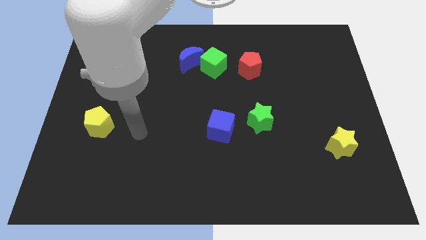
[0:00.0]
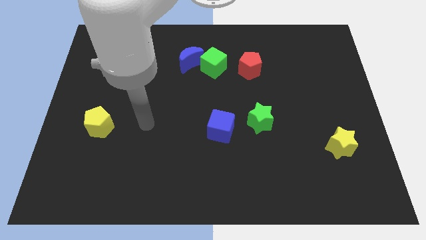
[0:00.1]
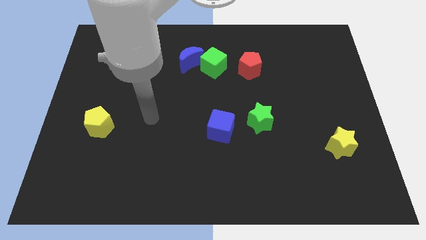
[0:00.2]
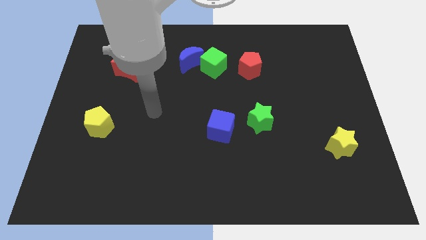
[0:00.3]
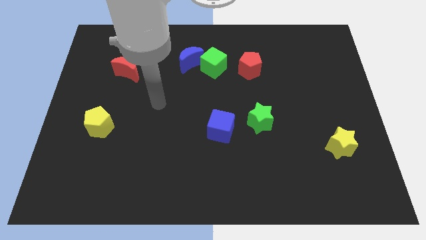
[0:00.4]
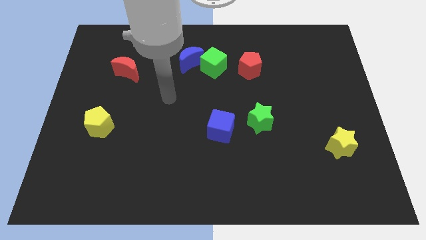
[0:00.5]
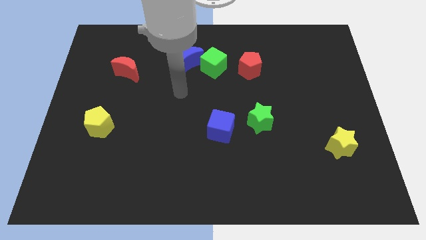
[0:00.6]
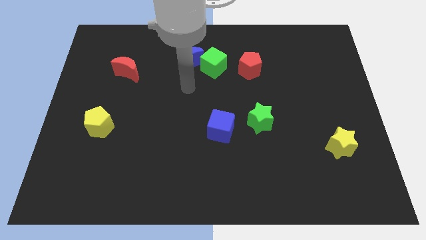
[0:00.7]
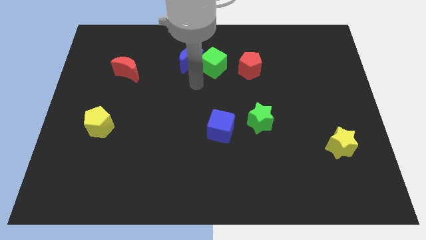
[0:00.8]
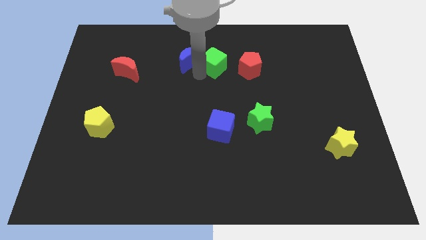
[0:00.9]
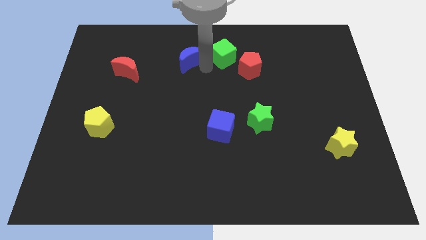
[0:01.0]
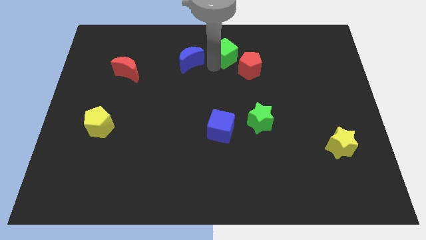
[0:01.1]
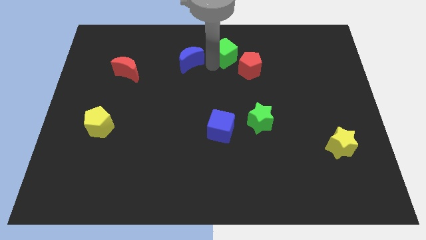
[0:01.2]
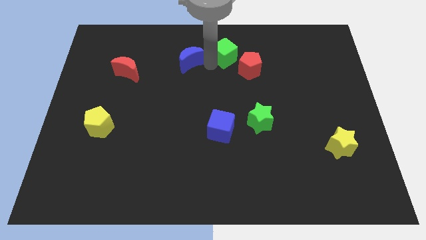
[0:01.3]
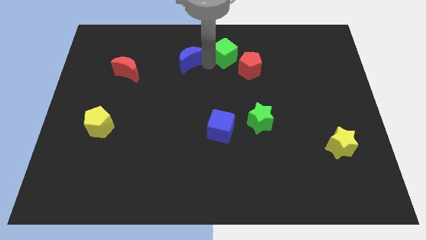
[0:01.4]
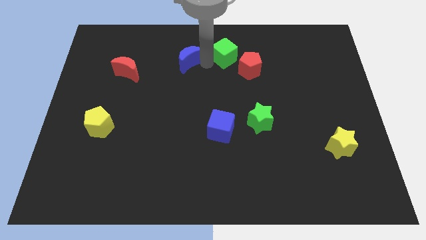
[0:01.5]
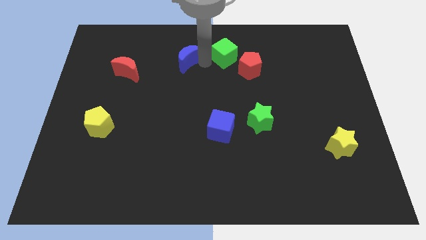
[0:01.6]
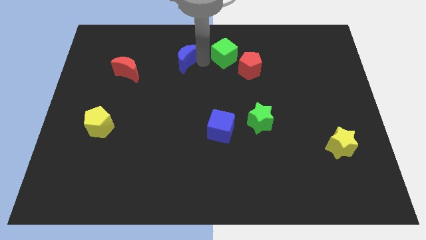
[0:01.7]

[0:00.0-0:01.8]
separate the blue moon from the green cube

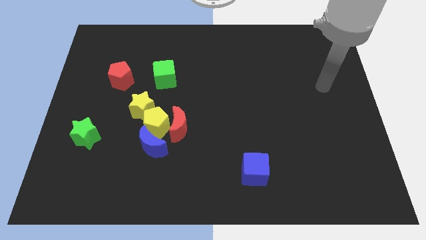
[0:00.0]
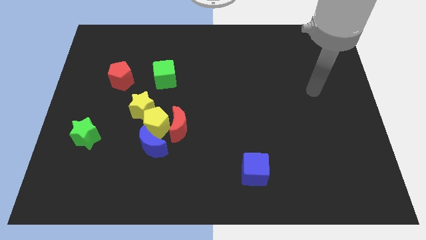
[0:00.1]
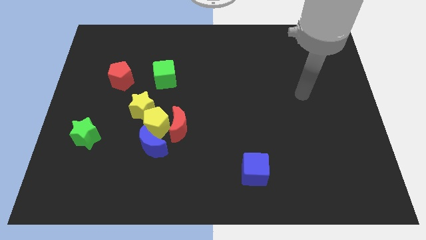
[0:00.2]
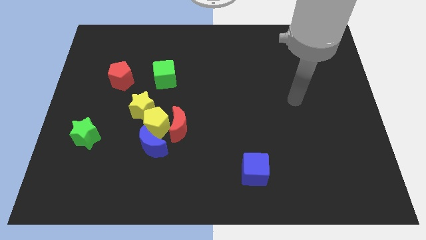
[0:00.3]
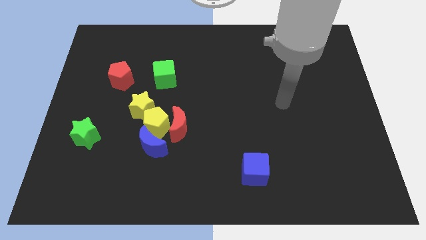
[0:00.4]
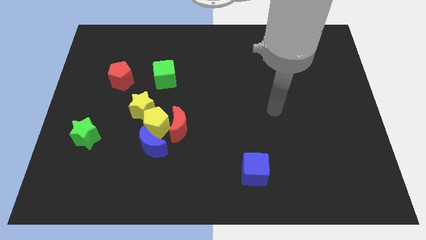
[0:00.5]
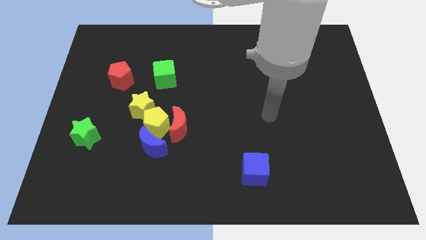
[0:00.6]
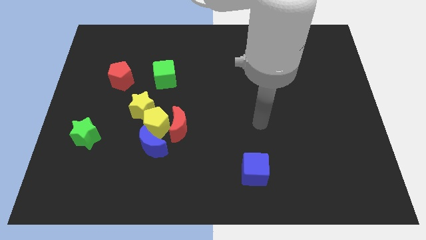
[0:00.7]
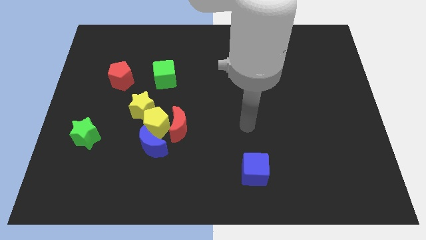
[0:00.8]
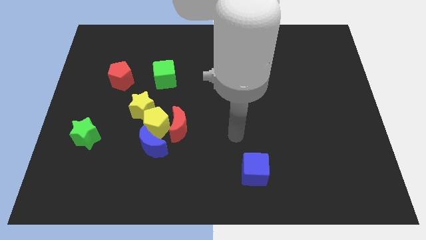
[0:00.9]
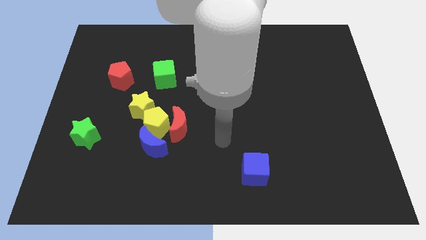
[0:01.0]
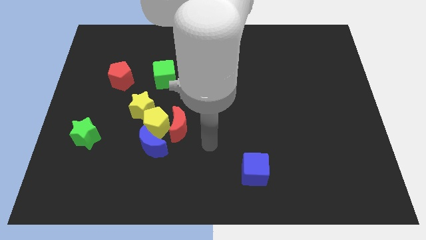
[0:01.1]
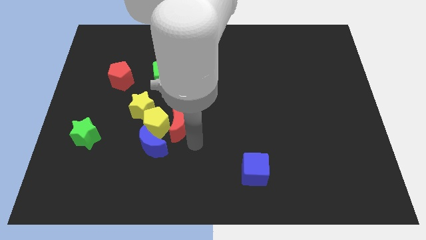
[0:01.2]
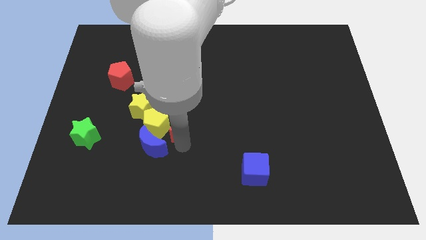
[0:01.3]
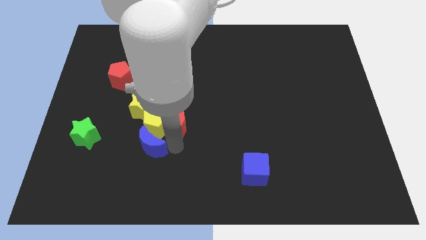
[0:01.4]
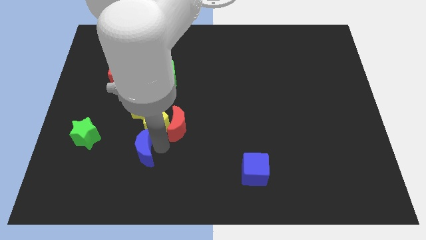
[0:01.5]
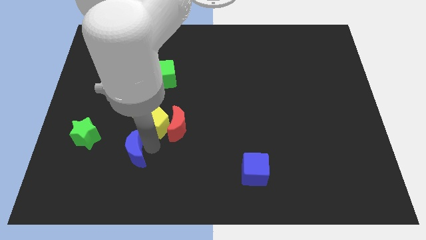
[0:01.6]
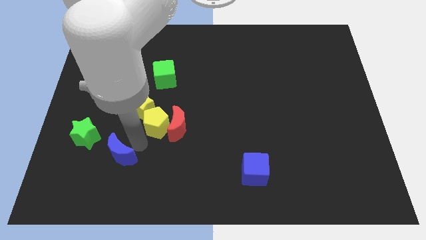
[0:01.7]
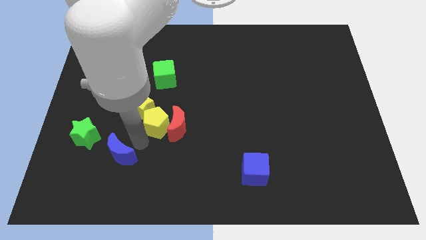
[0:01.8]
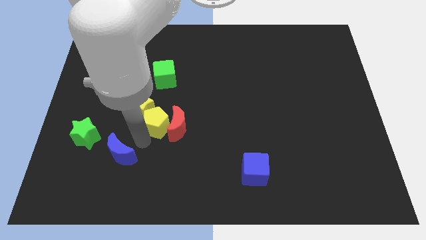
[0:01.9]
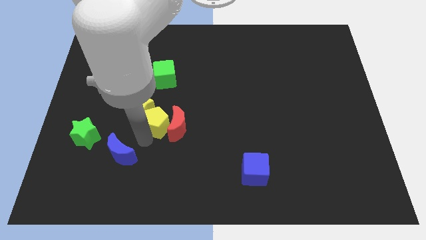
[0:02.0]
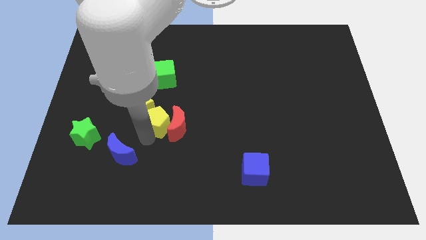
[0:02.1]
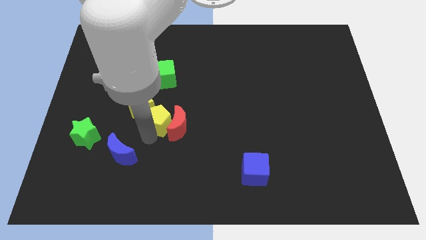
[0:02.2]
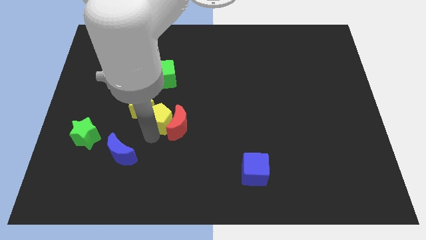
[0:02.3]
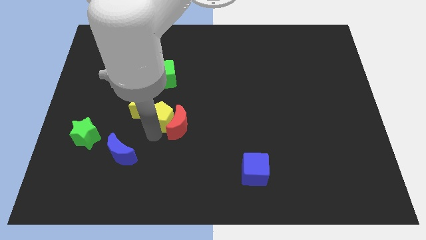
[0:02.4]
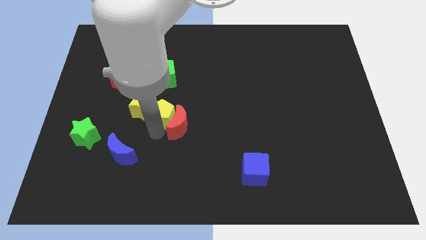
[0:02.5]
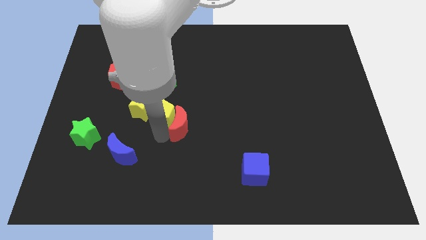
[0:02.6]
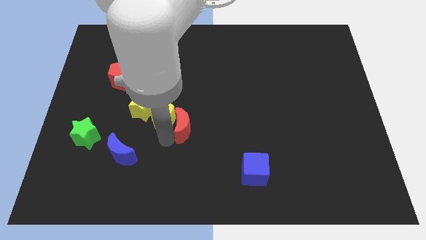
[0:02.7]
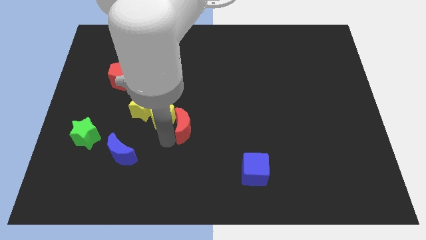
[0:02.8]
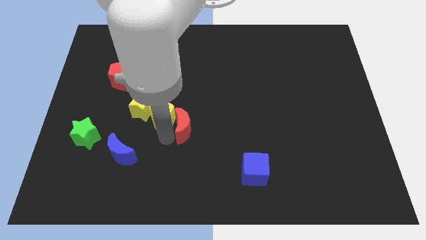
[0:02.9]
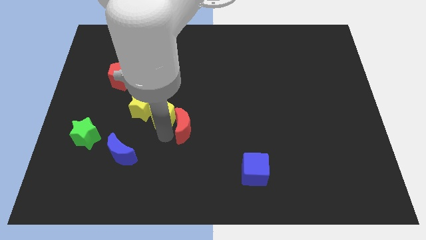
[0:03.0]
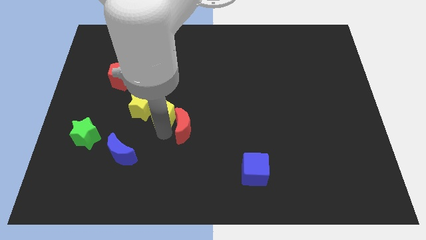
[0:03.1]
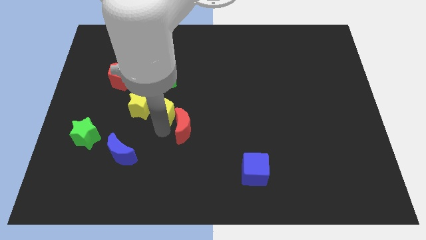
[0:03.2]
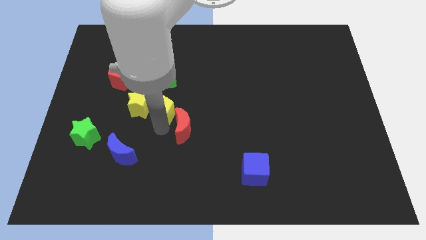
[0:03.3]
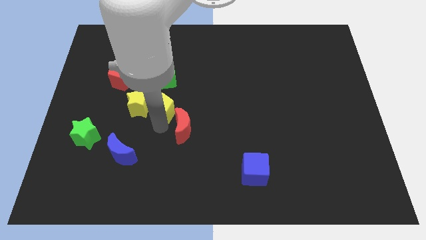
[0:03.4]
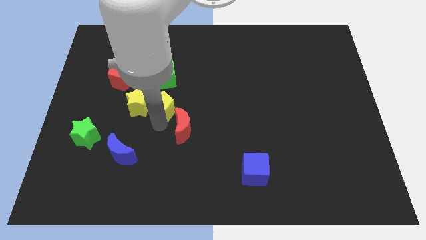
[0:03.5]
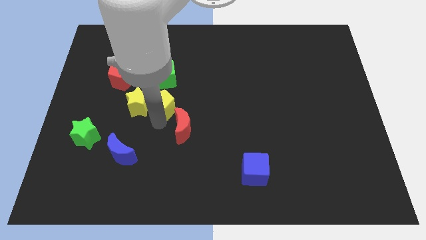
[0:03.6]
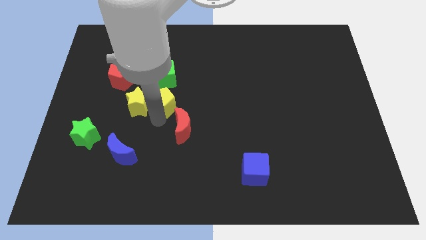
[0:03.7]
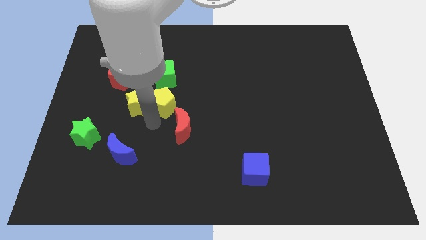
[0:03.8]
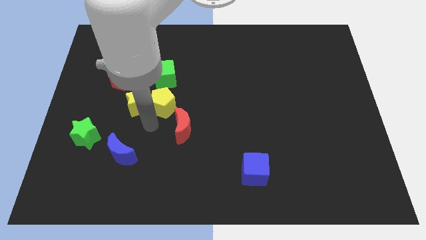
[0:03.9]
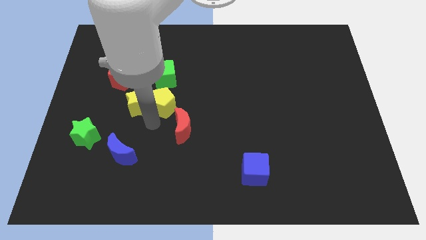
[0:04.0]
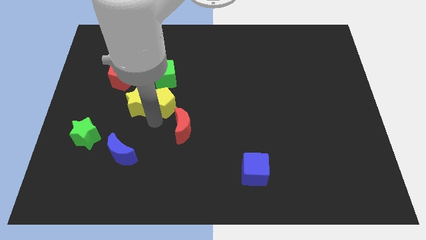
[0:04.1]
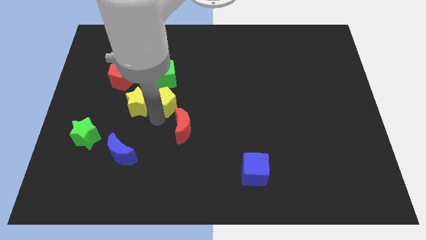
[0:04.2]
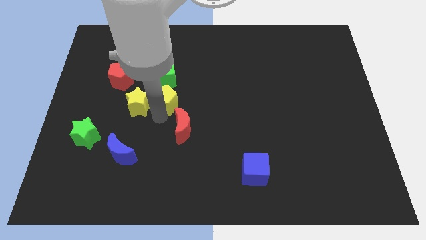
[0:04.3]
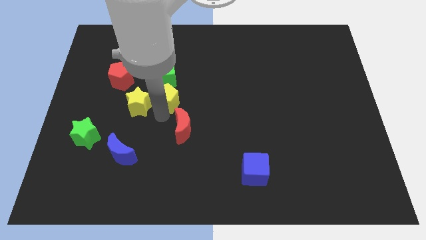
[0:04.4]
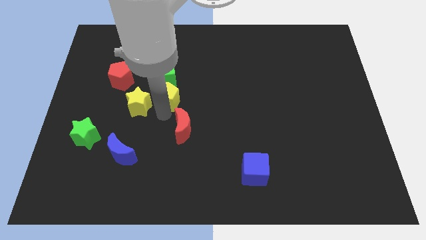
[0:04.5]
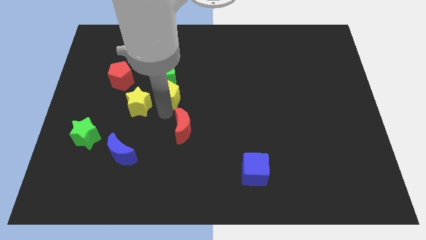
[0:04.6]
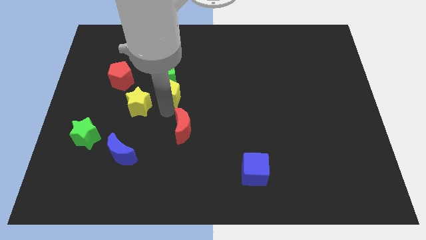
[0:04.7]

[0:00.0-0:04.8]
move the yellow pentagon away from the red moon, blue moon, and yellow star

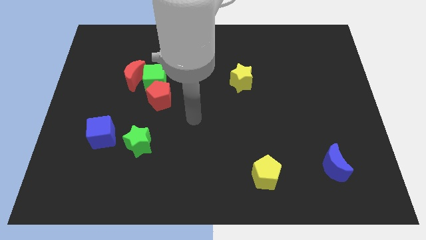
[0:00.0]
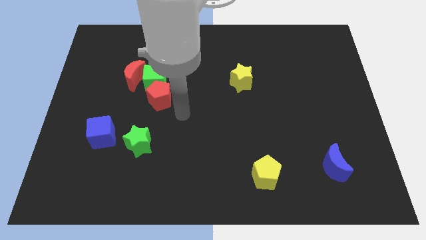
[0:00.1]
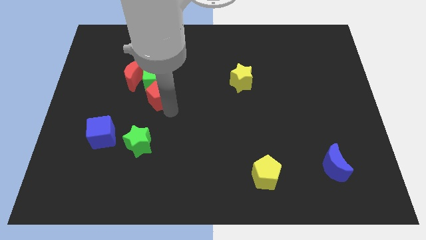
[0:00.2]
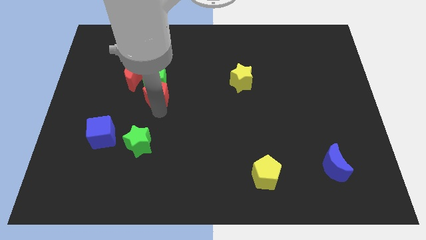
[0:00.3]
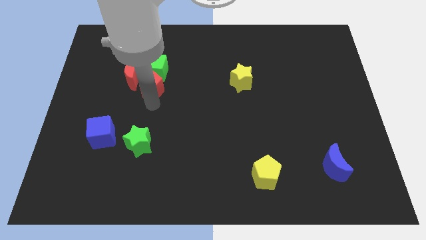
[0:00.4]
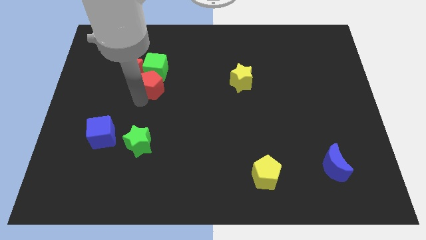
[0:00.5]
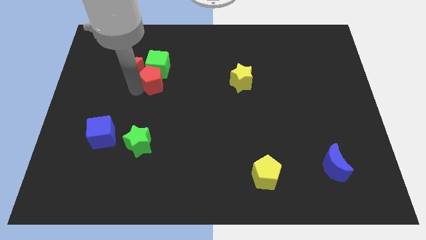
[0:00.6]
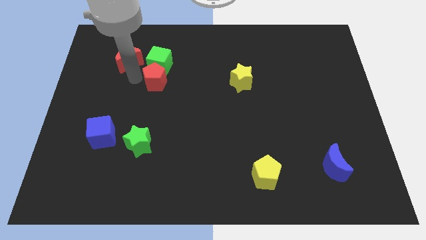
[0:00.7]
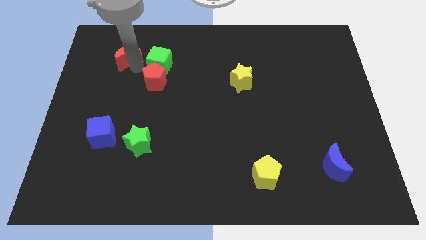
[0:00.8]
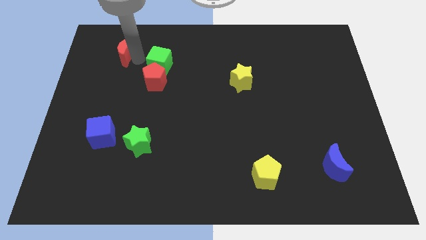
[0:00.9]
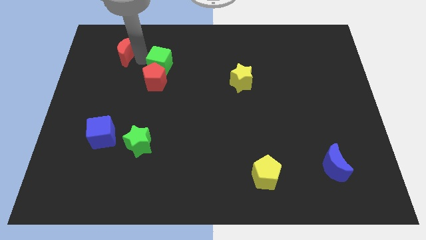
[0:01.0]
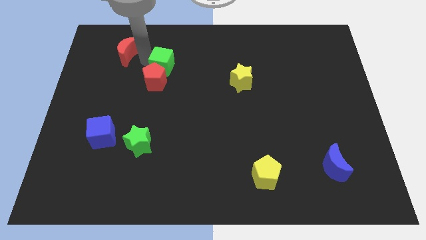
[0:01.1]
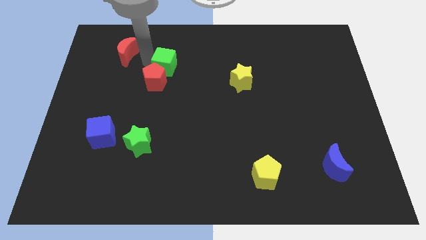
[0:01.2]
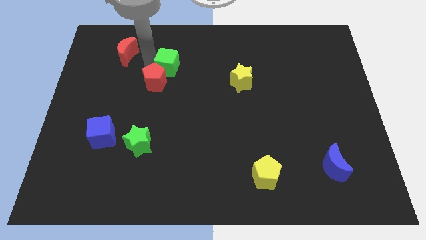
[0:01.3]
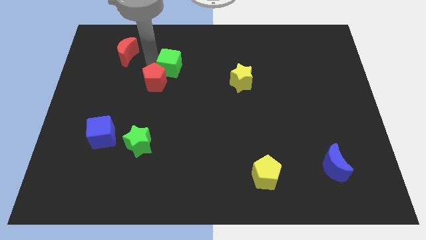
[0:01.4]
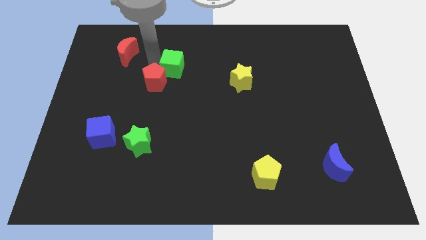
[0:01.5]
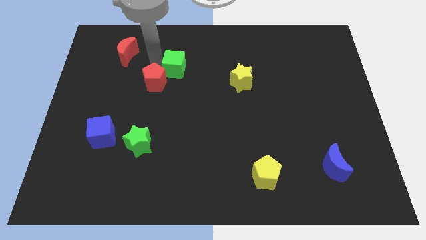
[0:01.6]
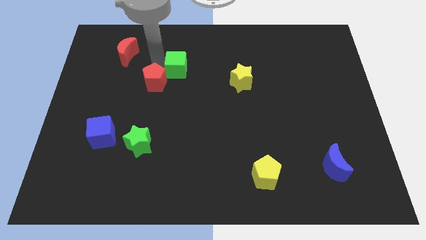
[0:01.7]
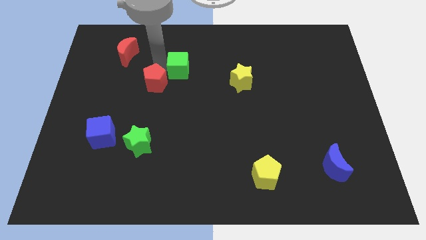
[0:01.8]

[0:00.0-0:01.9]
pull the green cube apart from the red moon and red pentagon

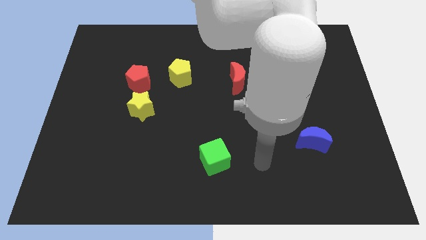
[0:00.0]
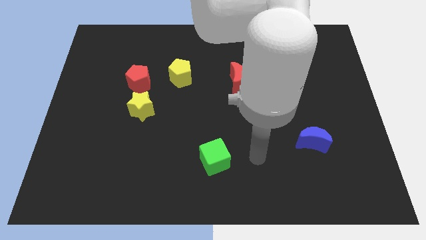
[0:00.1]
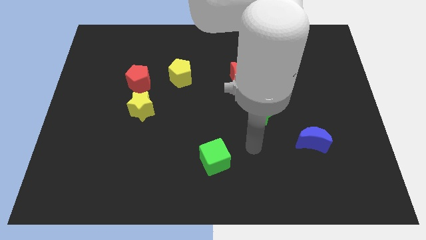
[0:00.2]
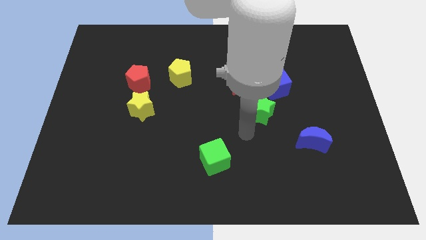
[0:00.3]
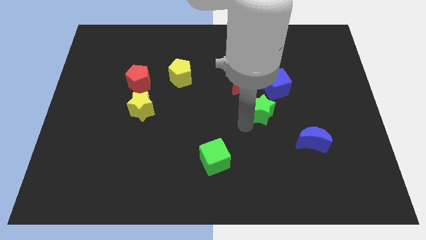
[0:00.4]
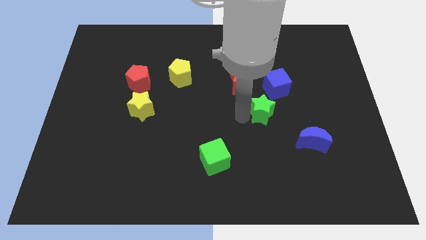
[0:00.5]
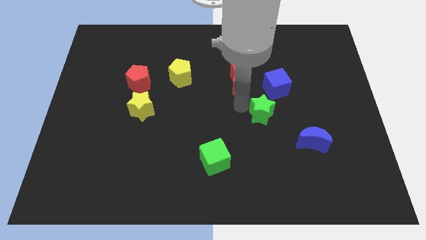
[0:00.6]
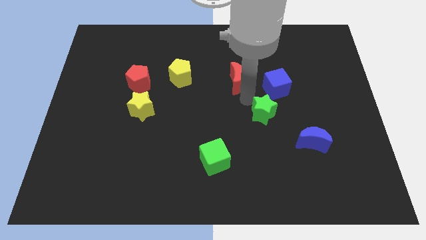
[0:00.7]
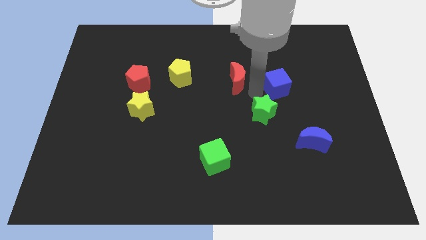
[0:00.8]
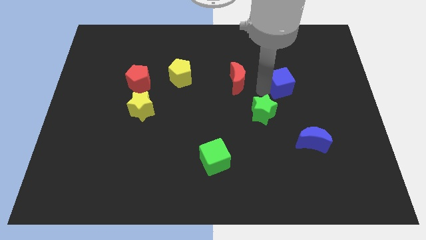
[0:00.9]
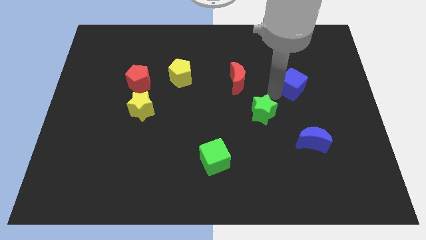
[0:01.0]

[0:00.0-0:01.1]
separate the green star from the blue cube
